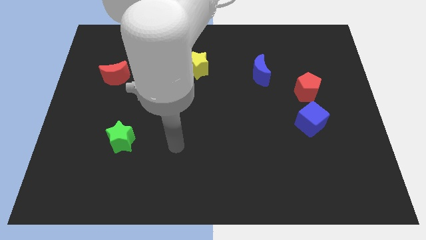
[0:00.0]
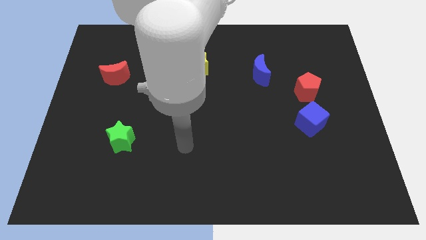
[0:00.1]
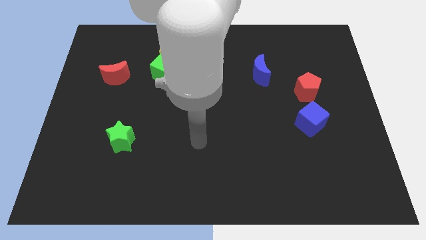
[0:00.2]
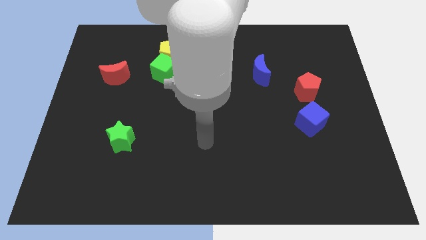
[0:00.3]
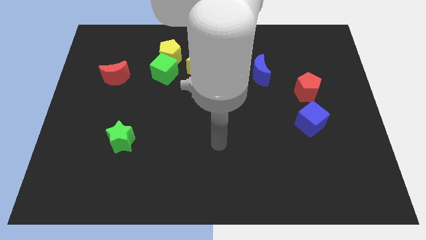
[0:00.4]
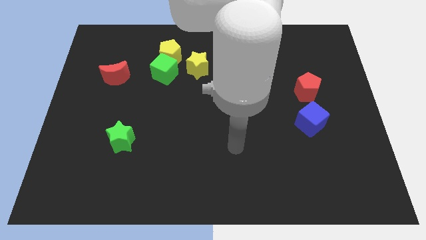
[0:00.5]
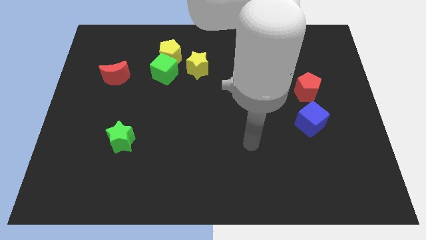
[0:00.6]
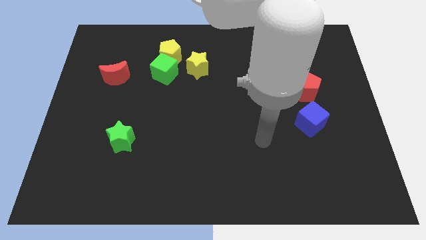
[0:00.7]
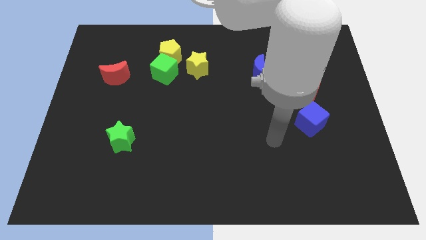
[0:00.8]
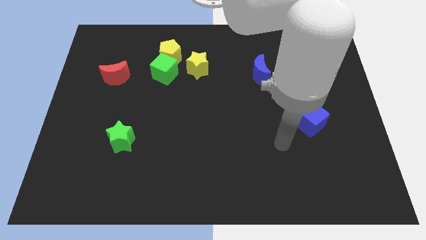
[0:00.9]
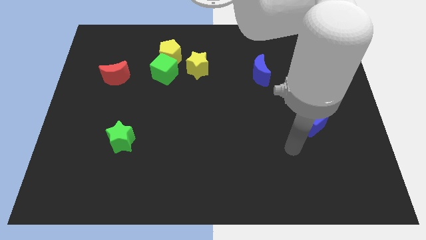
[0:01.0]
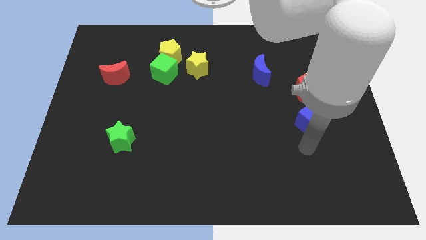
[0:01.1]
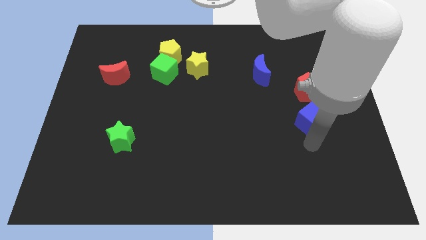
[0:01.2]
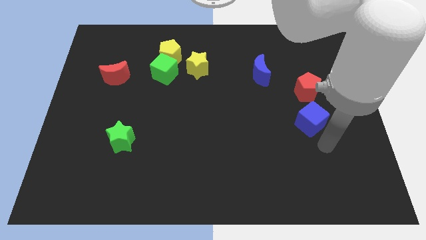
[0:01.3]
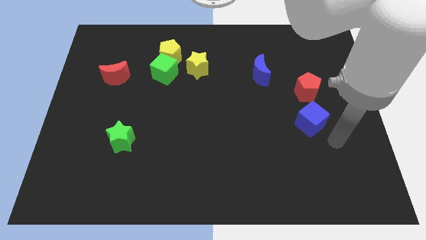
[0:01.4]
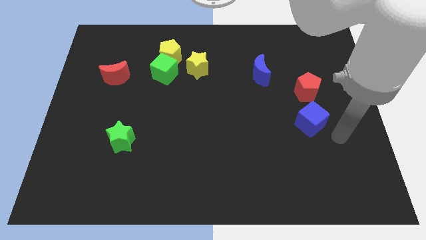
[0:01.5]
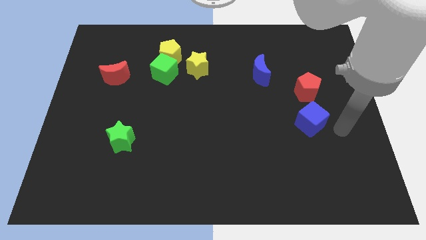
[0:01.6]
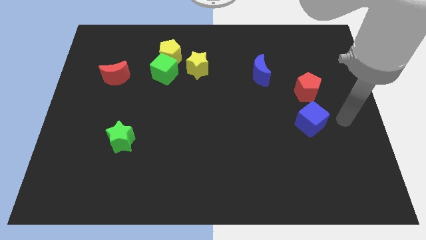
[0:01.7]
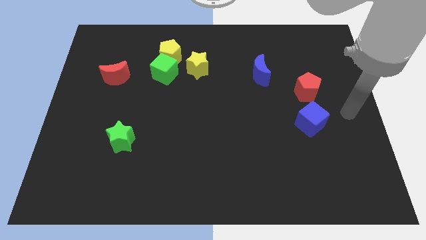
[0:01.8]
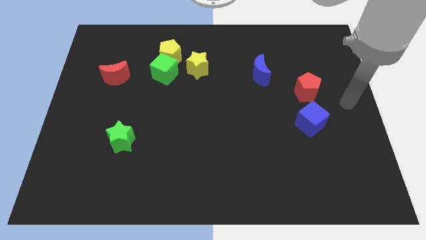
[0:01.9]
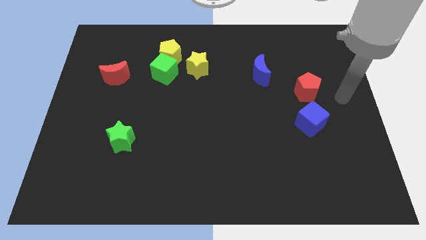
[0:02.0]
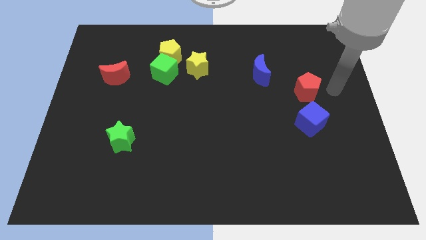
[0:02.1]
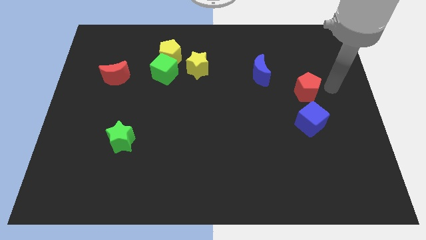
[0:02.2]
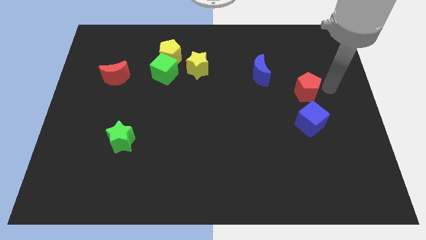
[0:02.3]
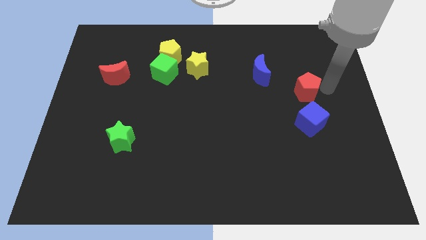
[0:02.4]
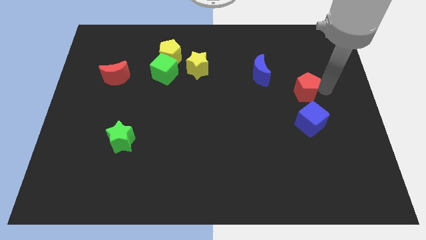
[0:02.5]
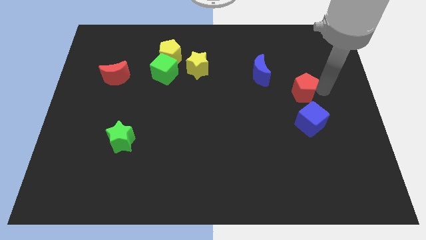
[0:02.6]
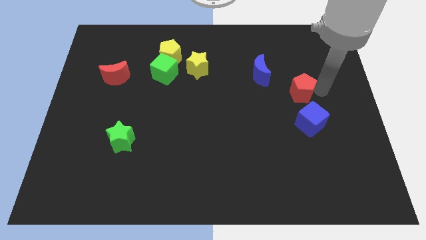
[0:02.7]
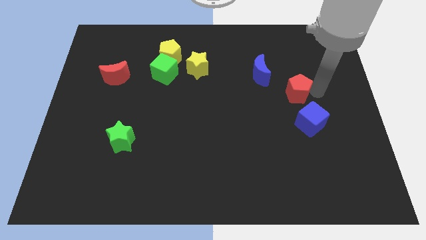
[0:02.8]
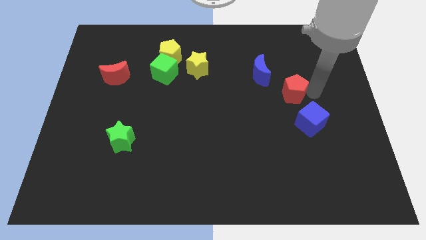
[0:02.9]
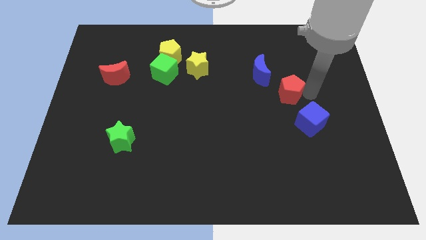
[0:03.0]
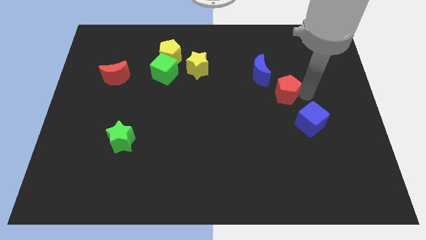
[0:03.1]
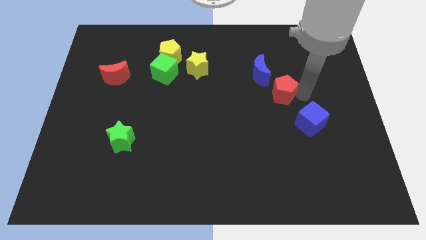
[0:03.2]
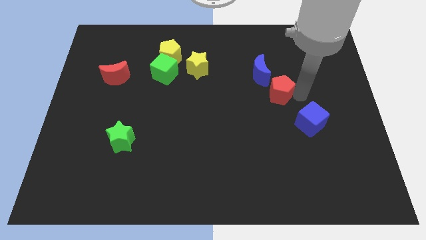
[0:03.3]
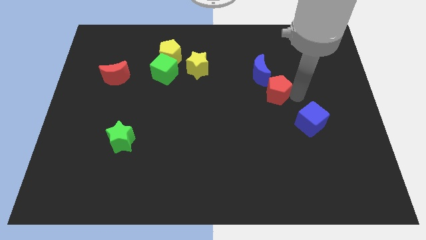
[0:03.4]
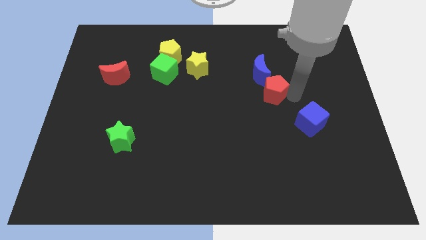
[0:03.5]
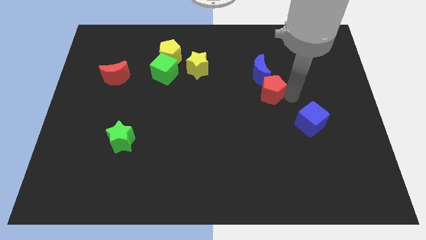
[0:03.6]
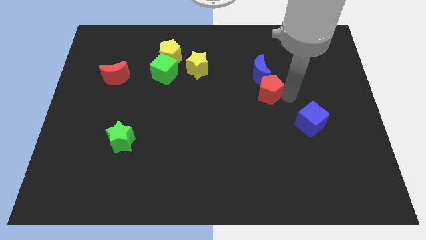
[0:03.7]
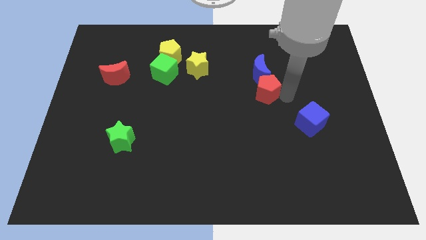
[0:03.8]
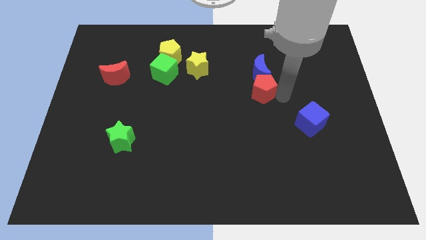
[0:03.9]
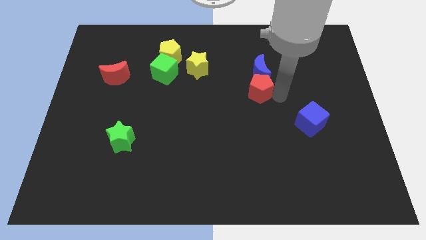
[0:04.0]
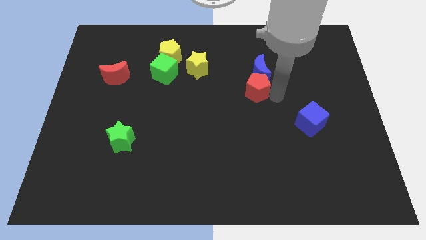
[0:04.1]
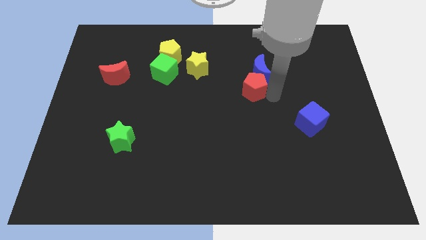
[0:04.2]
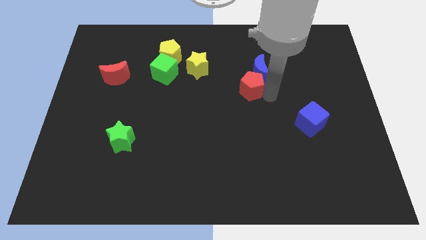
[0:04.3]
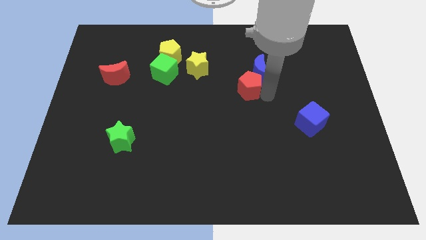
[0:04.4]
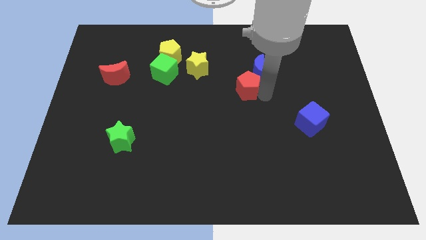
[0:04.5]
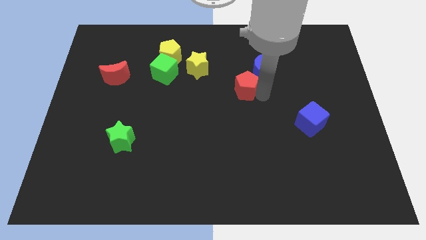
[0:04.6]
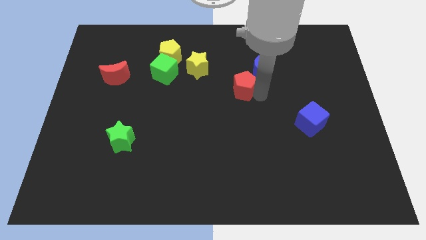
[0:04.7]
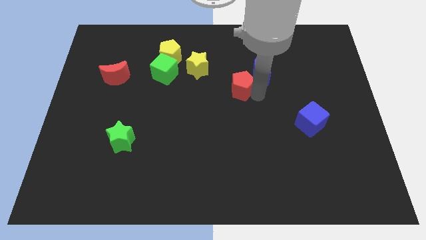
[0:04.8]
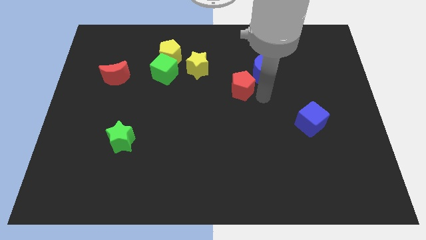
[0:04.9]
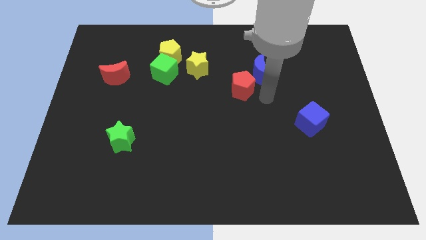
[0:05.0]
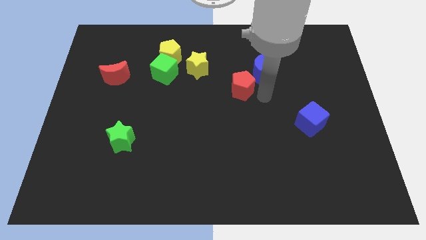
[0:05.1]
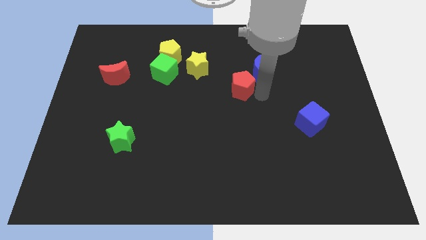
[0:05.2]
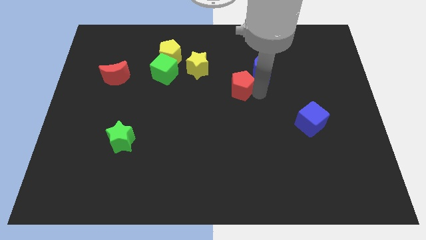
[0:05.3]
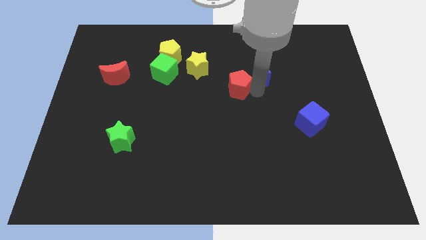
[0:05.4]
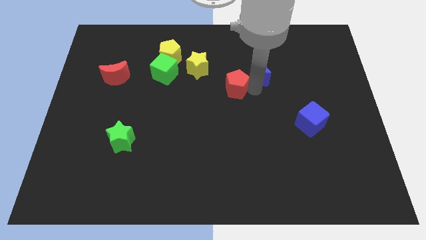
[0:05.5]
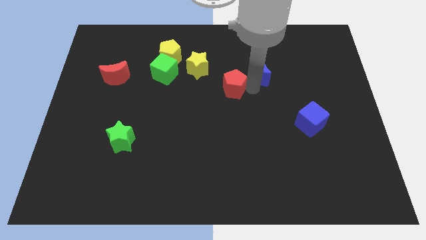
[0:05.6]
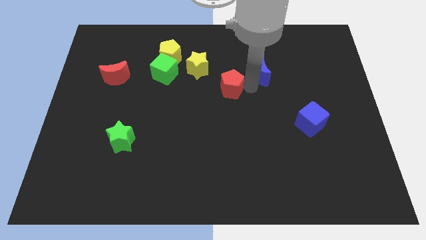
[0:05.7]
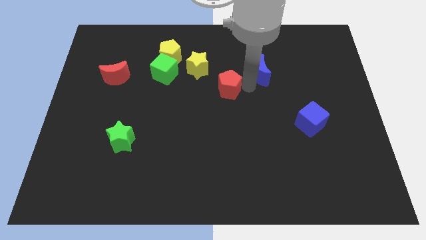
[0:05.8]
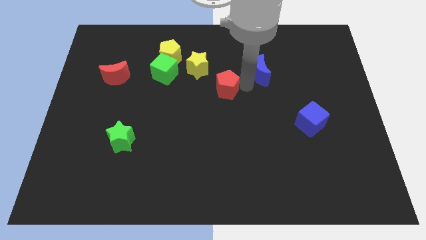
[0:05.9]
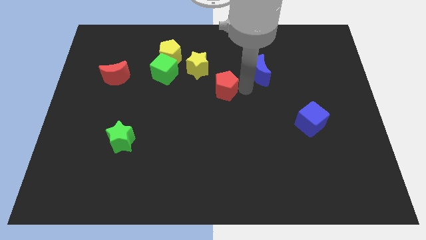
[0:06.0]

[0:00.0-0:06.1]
push the red pentagon to the left

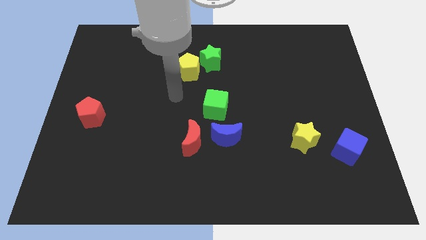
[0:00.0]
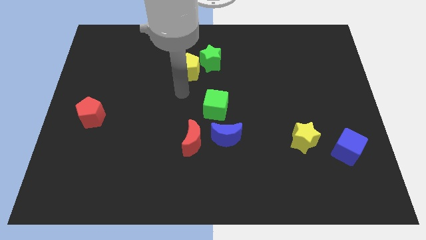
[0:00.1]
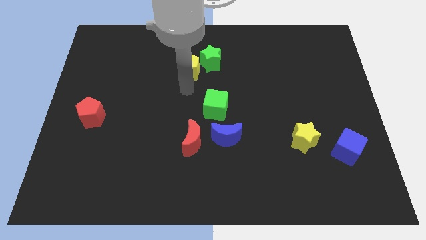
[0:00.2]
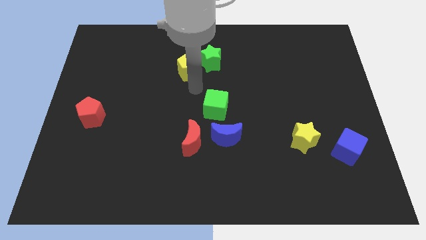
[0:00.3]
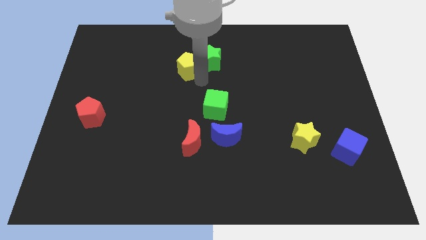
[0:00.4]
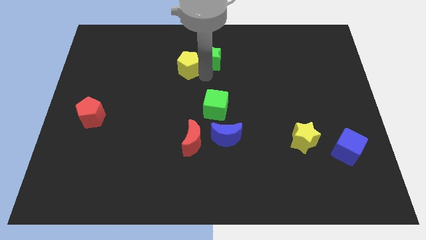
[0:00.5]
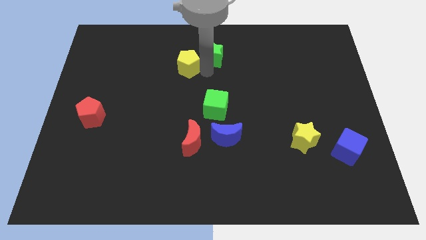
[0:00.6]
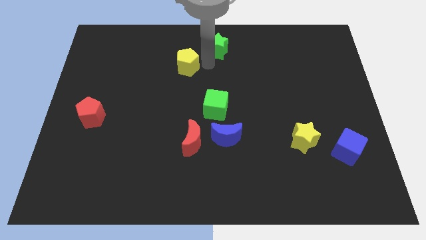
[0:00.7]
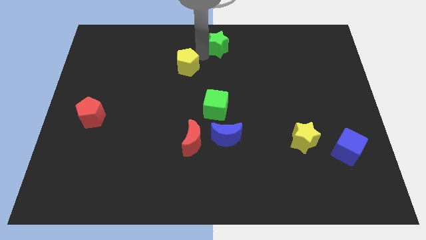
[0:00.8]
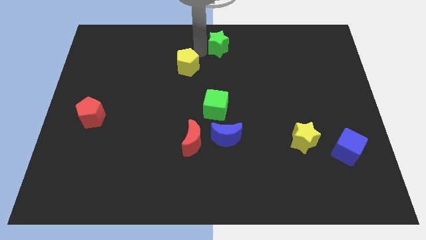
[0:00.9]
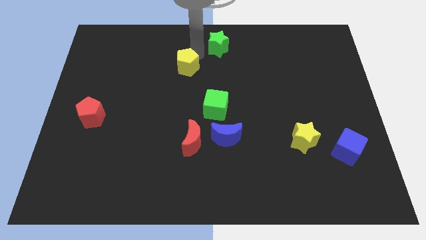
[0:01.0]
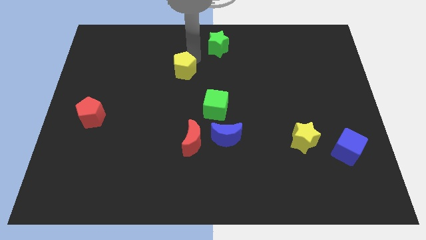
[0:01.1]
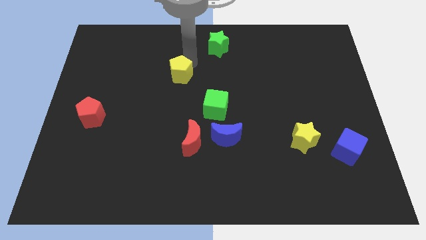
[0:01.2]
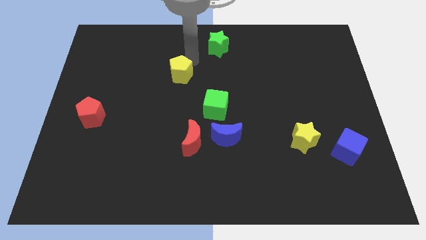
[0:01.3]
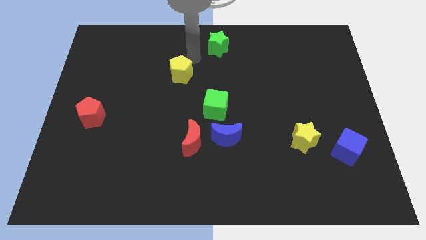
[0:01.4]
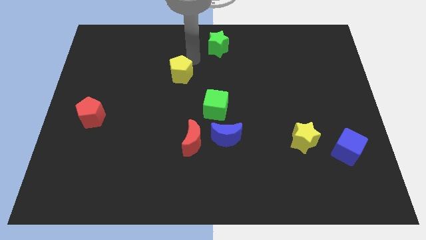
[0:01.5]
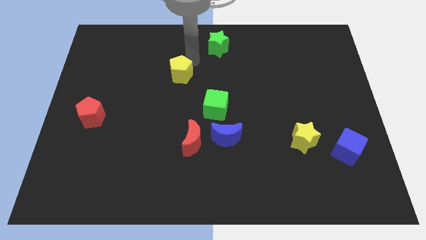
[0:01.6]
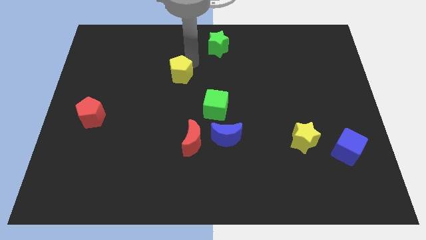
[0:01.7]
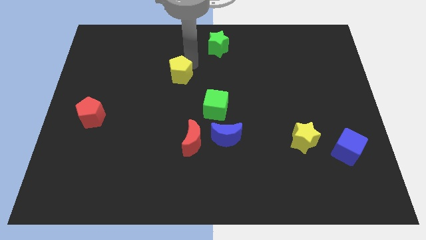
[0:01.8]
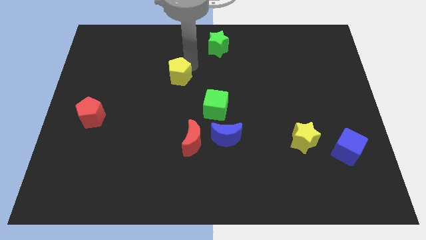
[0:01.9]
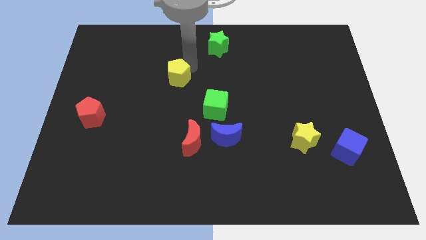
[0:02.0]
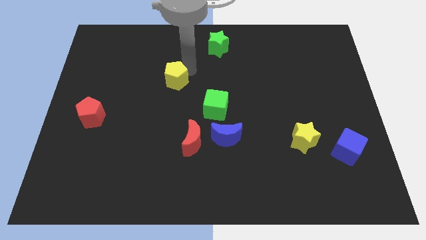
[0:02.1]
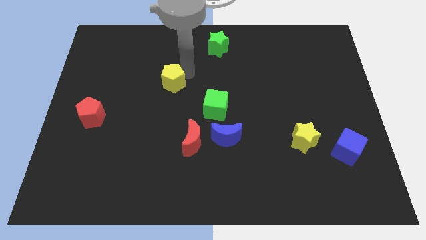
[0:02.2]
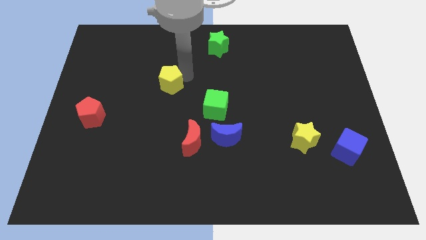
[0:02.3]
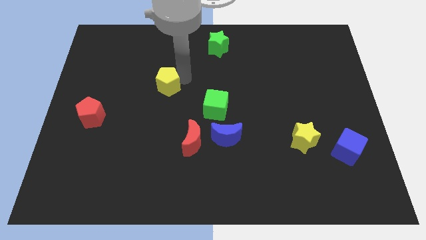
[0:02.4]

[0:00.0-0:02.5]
push the yellow pentagon diagonally downwards and left a bit
